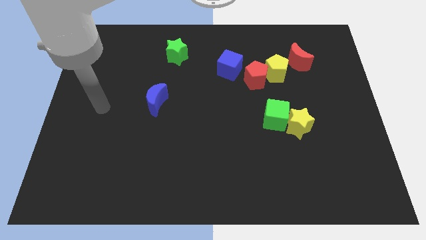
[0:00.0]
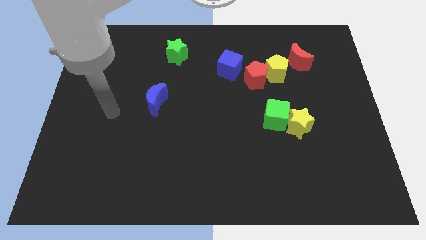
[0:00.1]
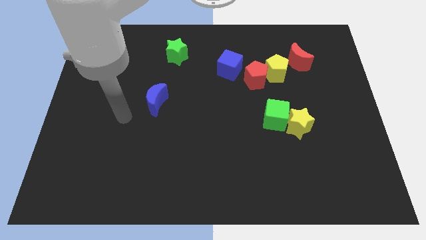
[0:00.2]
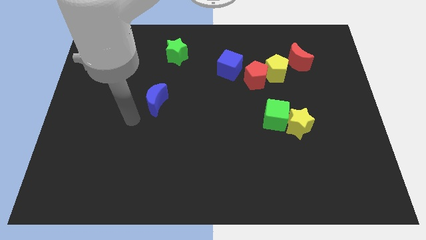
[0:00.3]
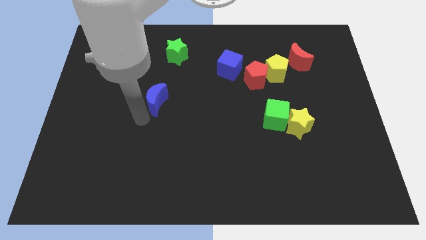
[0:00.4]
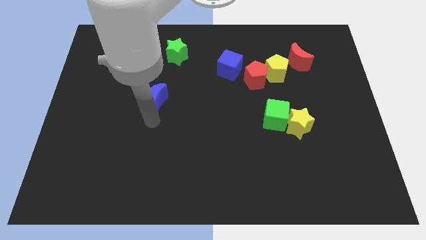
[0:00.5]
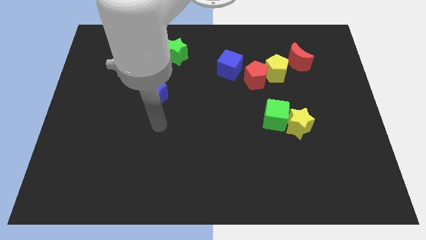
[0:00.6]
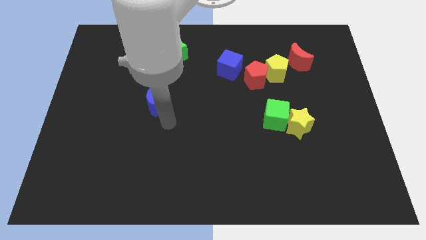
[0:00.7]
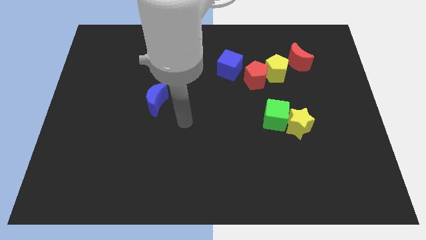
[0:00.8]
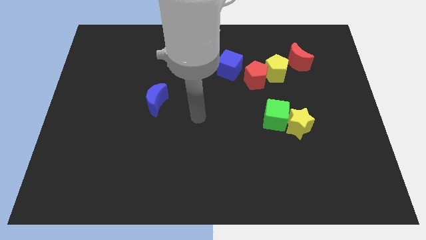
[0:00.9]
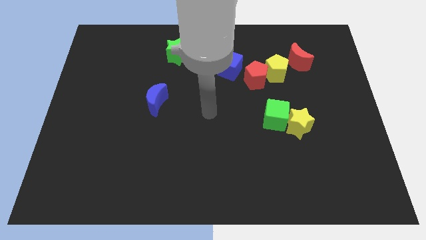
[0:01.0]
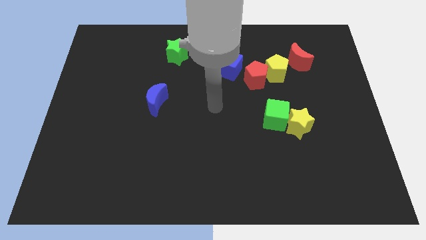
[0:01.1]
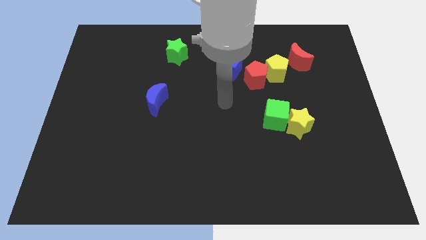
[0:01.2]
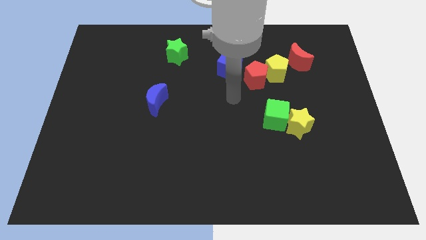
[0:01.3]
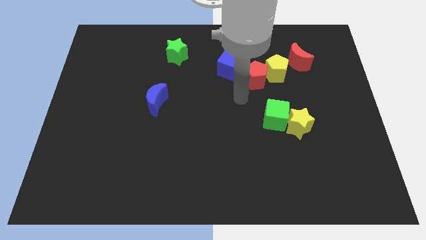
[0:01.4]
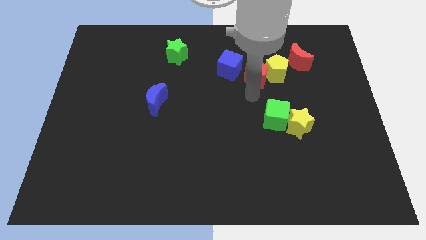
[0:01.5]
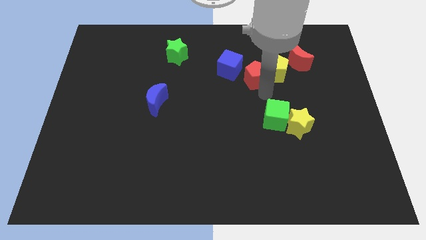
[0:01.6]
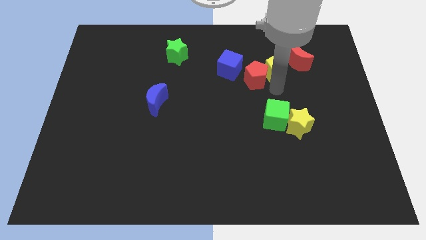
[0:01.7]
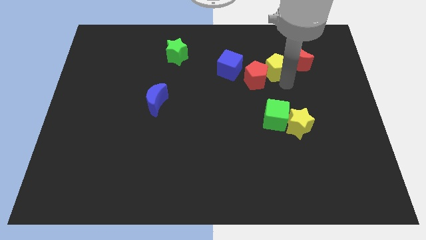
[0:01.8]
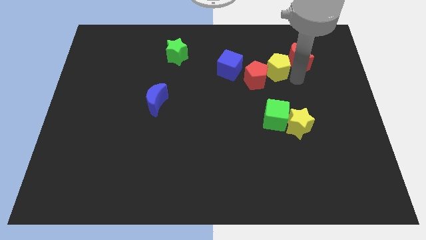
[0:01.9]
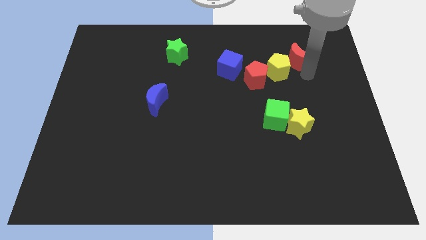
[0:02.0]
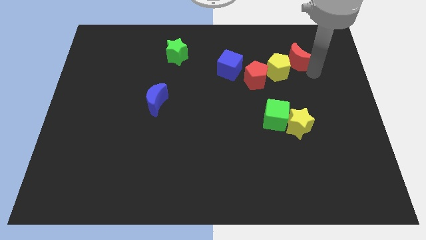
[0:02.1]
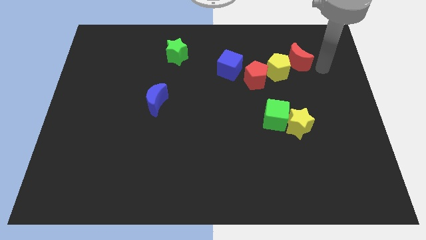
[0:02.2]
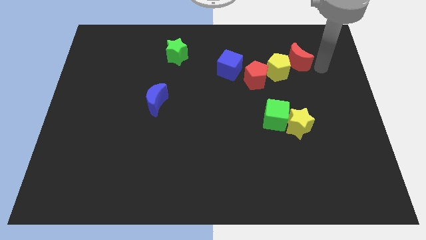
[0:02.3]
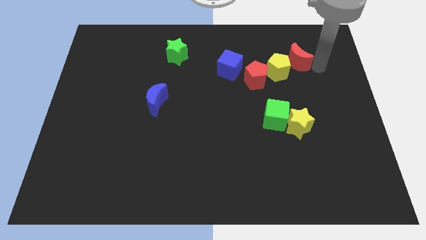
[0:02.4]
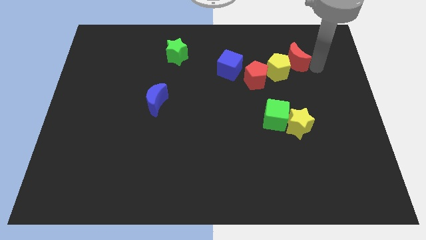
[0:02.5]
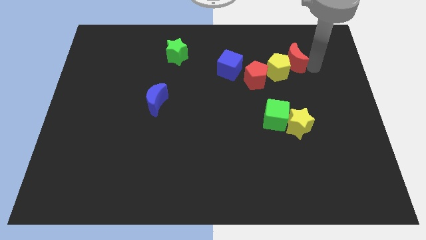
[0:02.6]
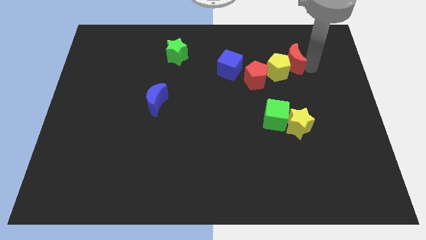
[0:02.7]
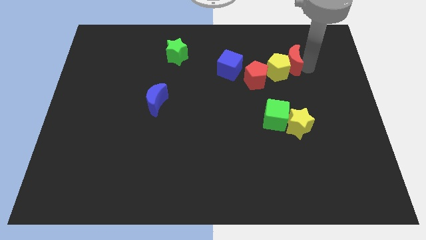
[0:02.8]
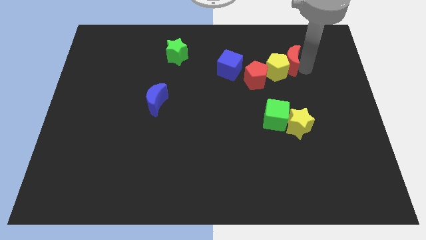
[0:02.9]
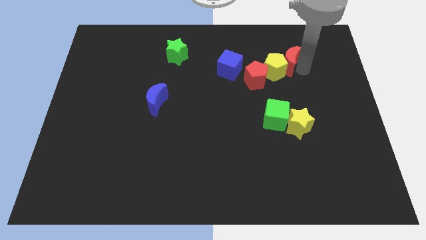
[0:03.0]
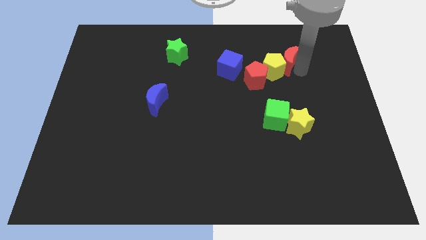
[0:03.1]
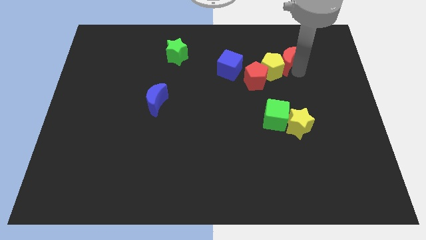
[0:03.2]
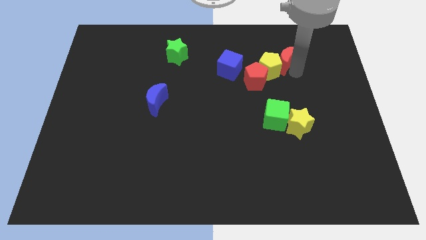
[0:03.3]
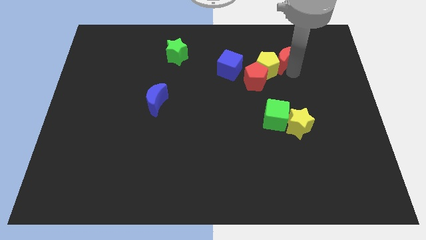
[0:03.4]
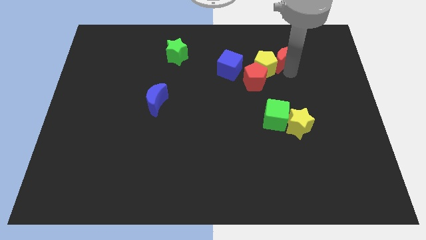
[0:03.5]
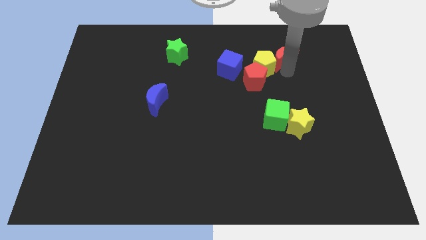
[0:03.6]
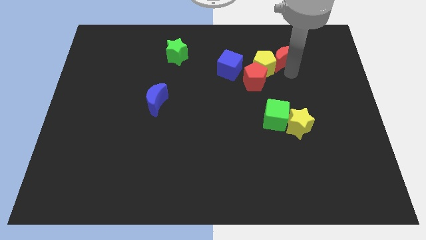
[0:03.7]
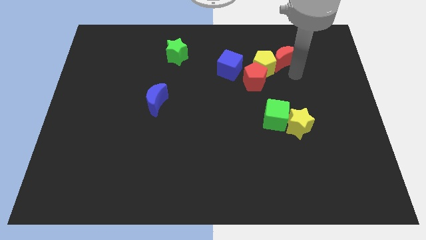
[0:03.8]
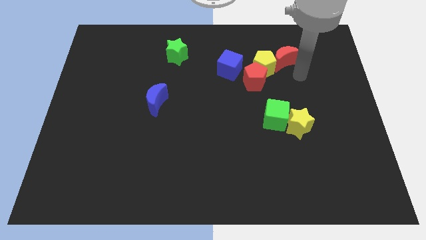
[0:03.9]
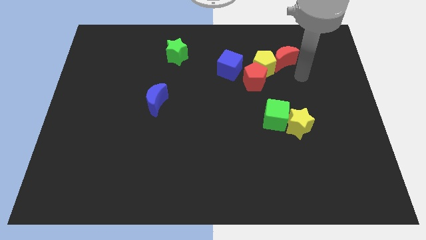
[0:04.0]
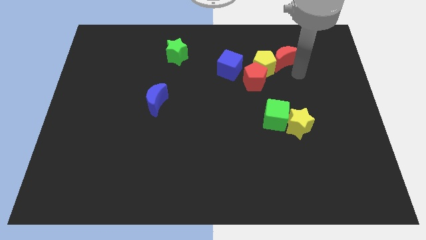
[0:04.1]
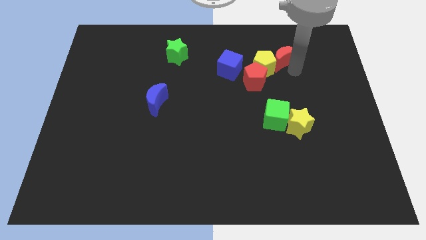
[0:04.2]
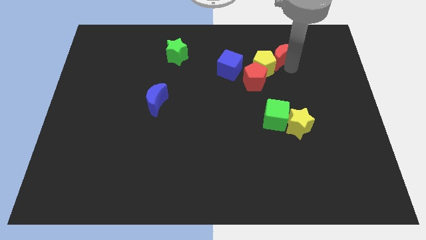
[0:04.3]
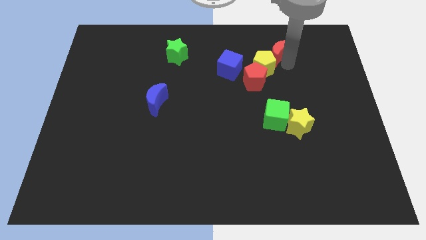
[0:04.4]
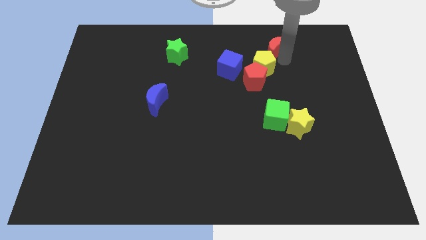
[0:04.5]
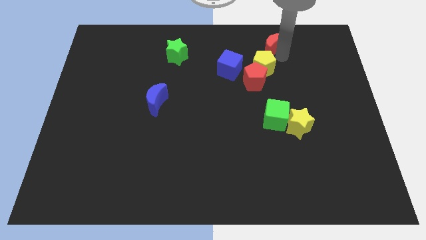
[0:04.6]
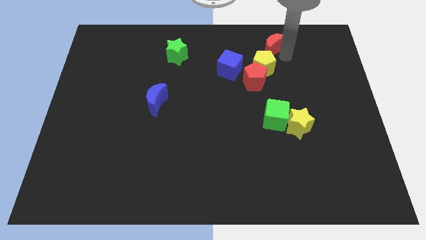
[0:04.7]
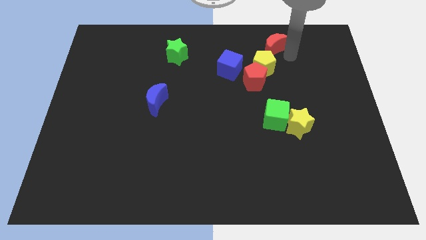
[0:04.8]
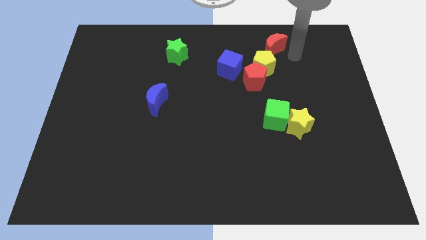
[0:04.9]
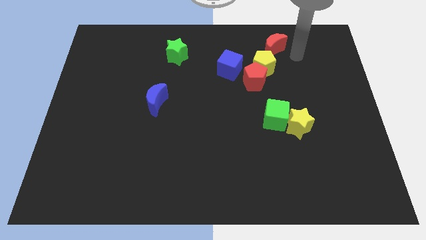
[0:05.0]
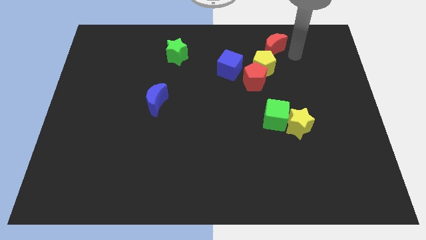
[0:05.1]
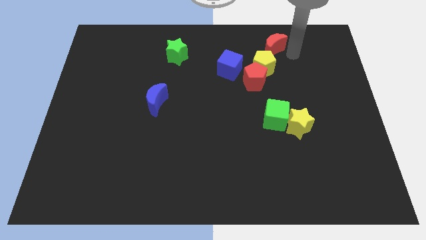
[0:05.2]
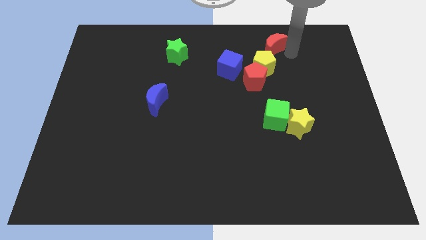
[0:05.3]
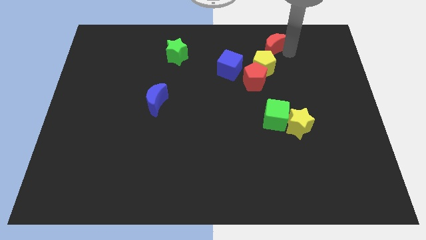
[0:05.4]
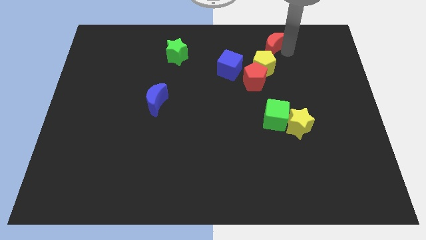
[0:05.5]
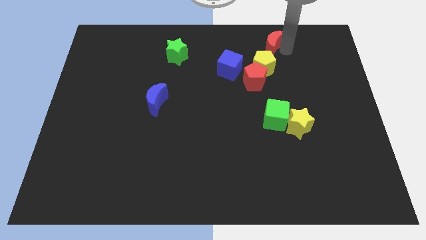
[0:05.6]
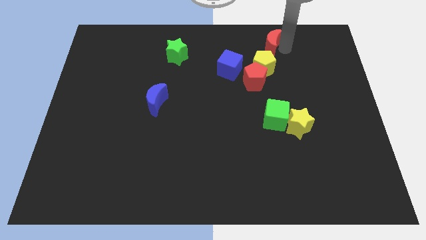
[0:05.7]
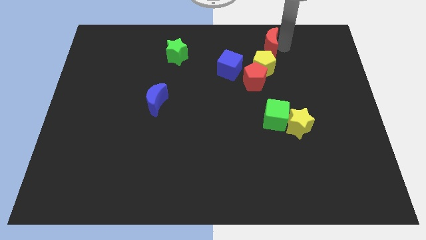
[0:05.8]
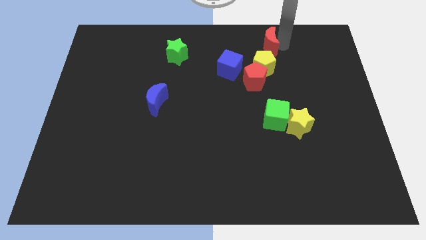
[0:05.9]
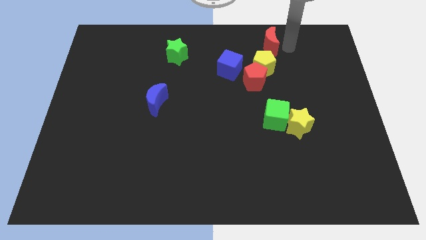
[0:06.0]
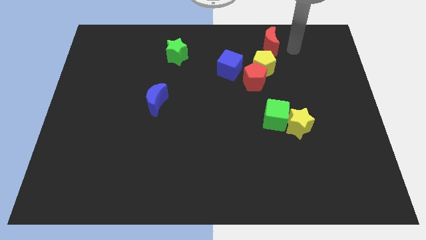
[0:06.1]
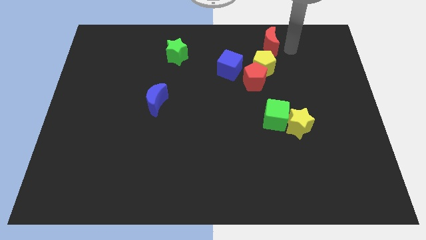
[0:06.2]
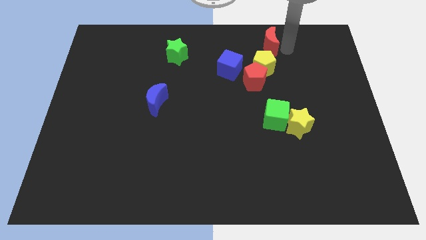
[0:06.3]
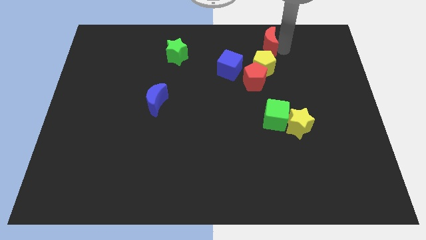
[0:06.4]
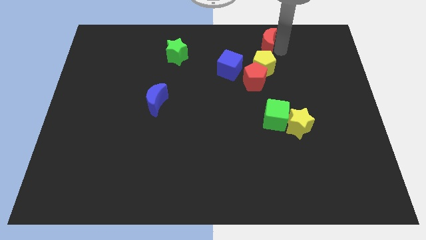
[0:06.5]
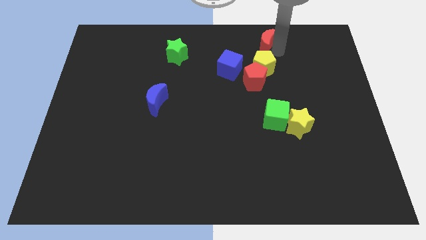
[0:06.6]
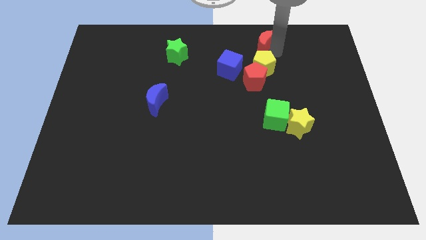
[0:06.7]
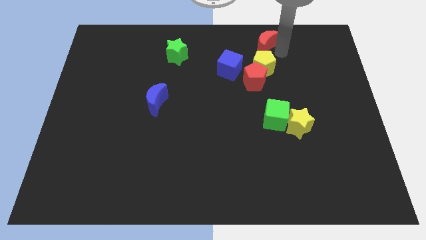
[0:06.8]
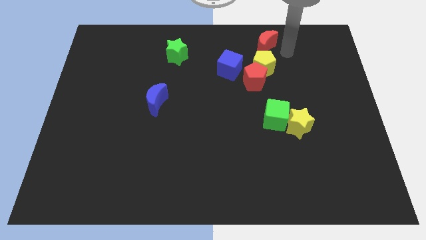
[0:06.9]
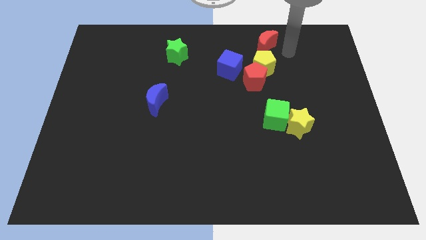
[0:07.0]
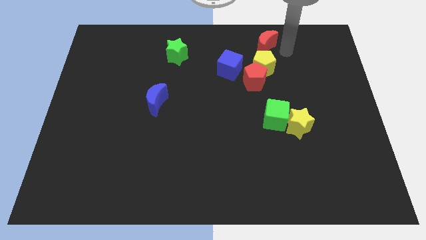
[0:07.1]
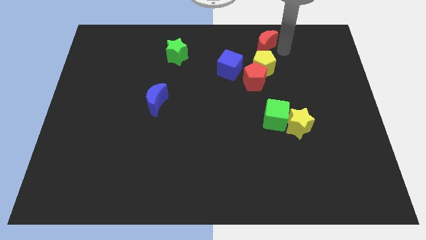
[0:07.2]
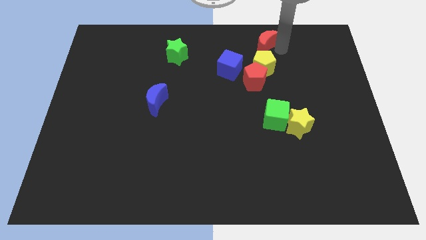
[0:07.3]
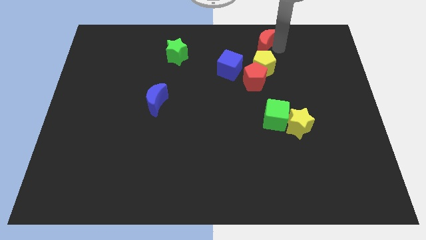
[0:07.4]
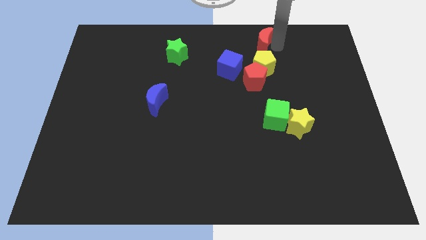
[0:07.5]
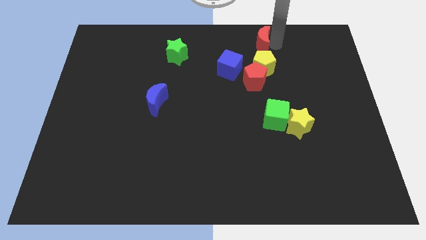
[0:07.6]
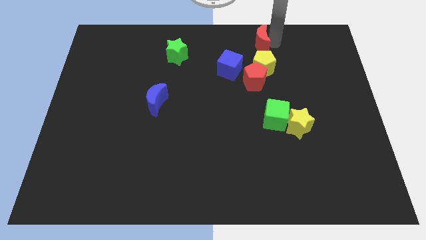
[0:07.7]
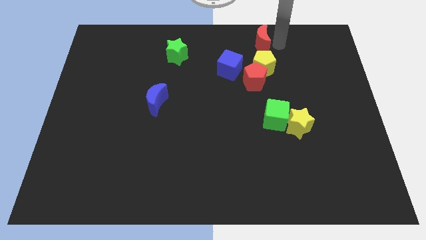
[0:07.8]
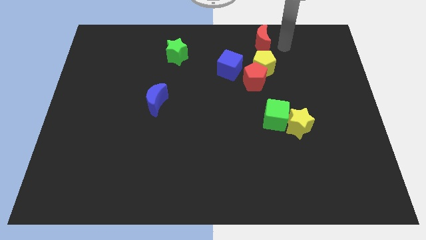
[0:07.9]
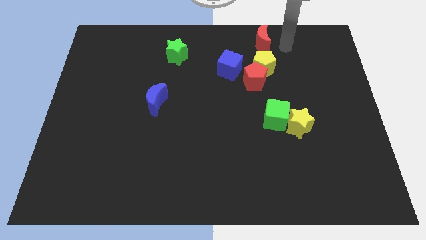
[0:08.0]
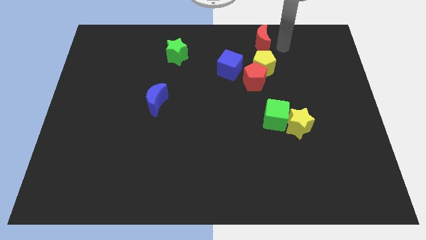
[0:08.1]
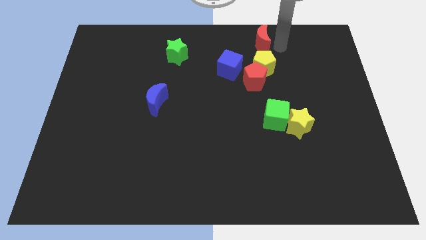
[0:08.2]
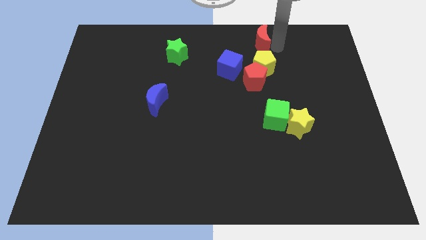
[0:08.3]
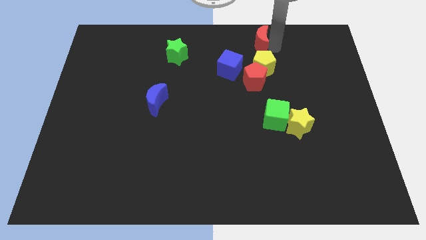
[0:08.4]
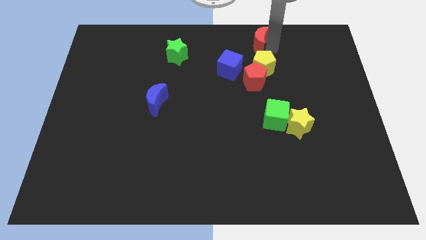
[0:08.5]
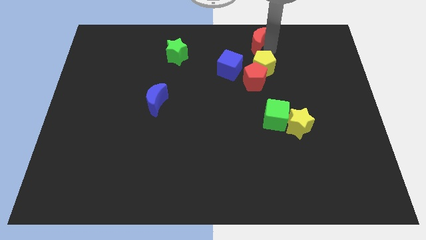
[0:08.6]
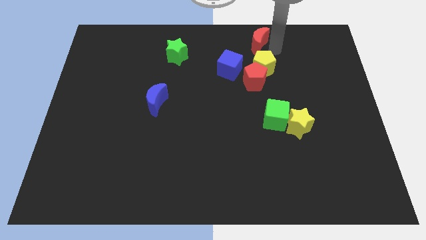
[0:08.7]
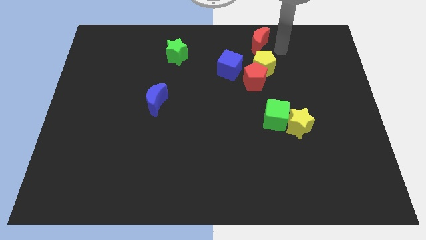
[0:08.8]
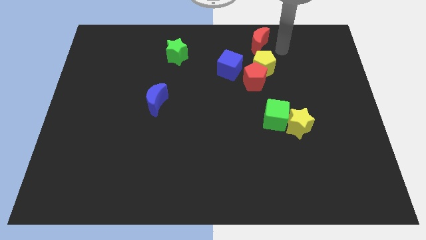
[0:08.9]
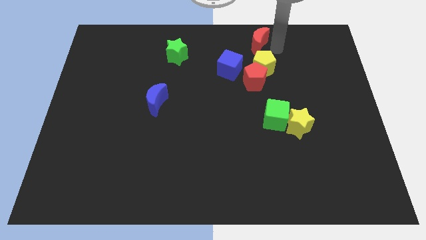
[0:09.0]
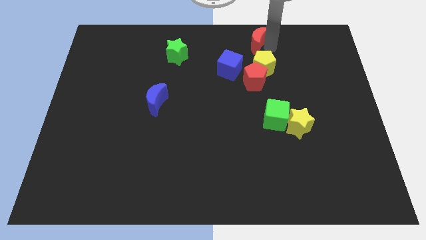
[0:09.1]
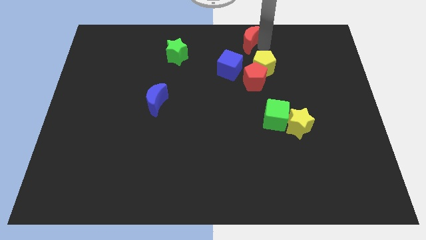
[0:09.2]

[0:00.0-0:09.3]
push the red moon to the top
